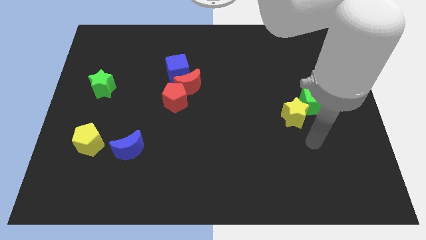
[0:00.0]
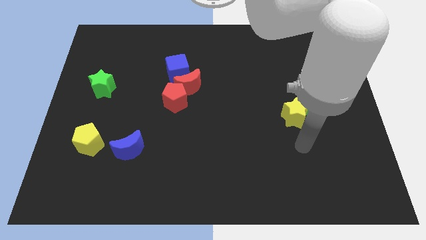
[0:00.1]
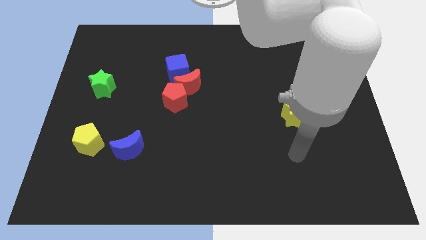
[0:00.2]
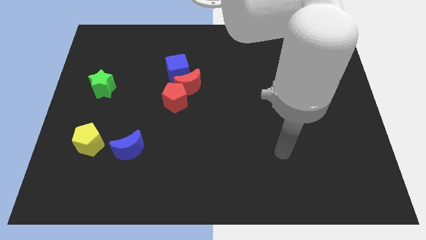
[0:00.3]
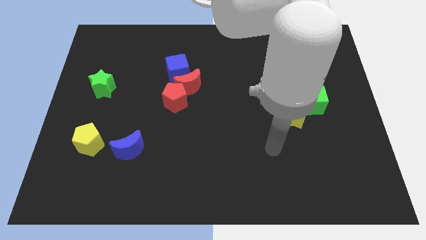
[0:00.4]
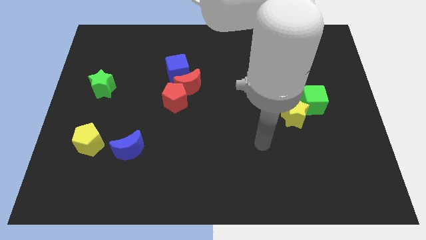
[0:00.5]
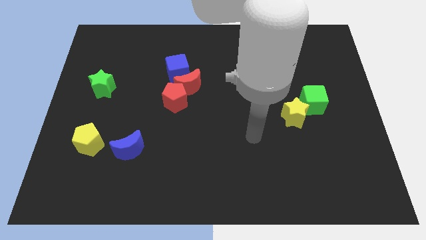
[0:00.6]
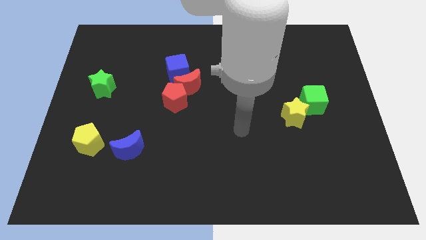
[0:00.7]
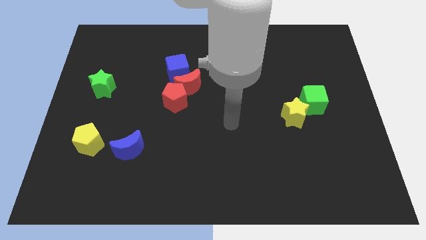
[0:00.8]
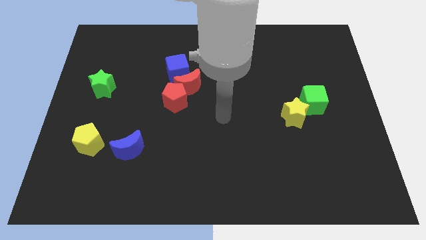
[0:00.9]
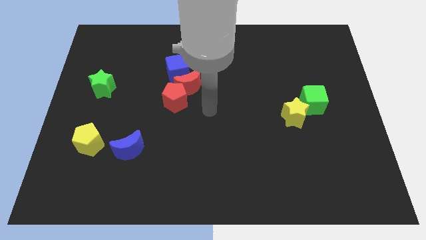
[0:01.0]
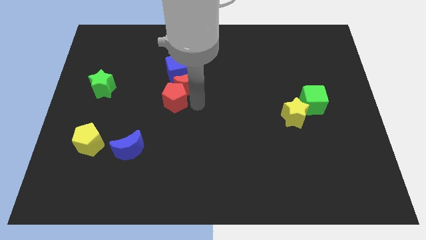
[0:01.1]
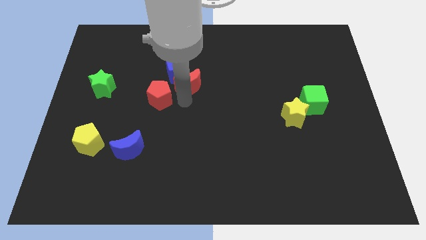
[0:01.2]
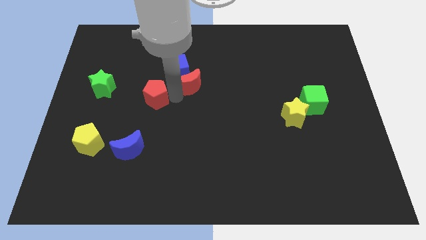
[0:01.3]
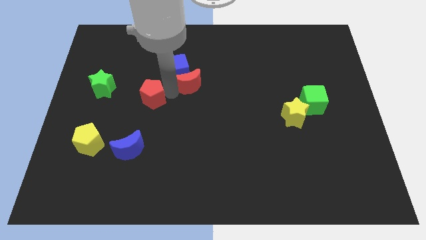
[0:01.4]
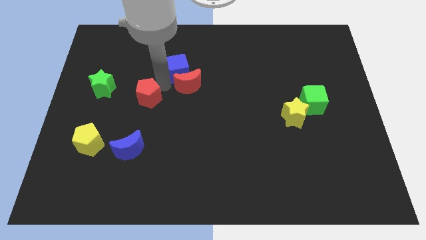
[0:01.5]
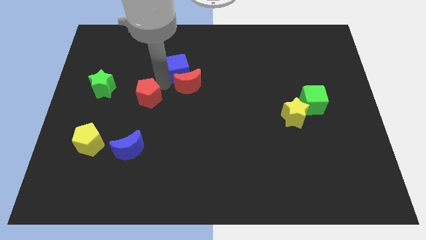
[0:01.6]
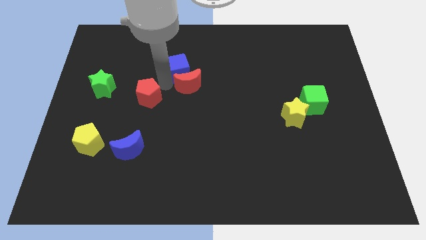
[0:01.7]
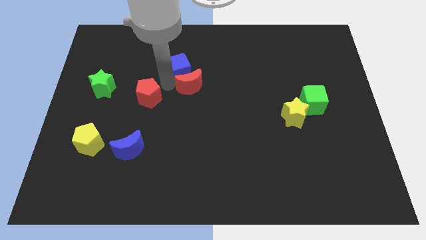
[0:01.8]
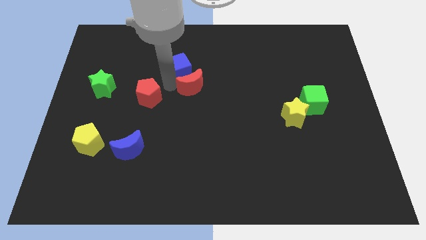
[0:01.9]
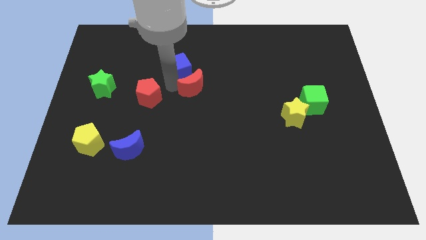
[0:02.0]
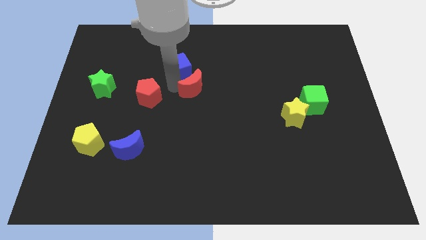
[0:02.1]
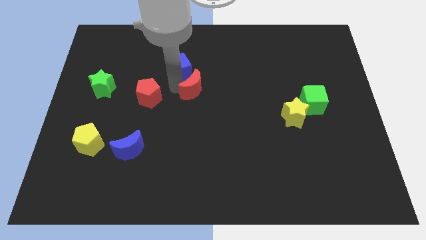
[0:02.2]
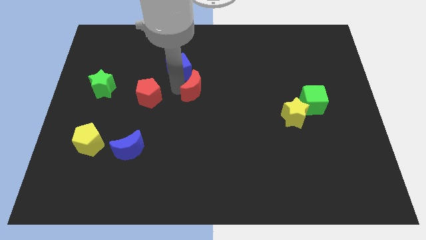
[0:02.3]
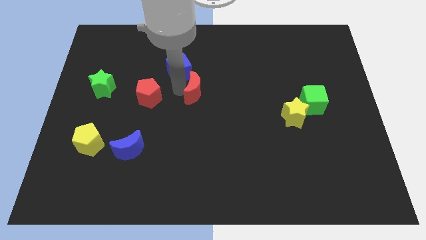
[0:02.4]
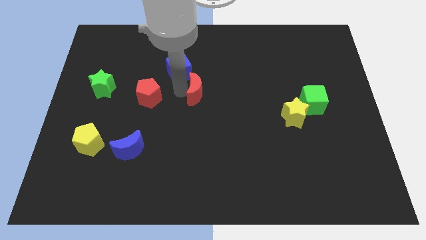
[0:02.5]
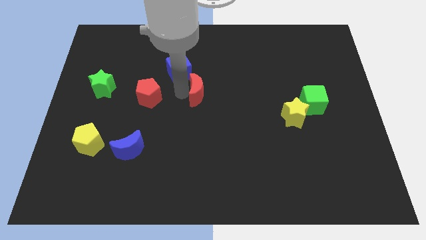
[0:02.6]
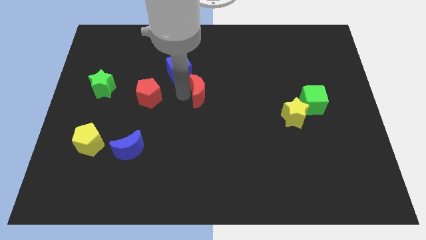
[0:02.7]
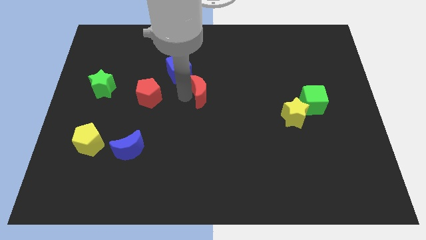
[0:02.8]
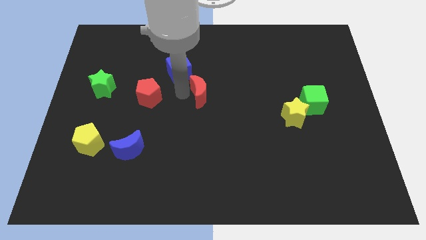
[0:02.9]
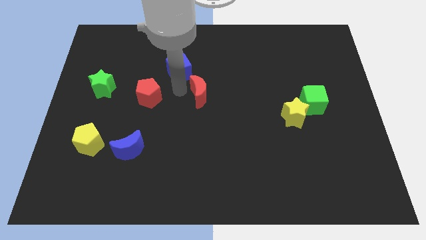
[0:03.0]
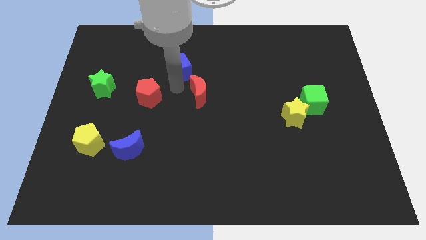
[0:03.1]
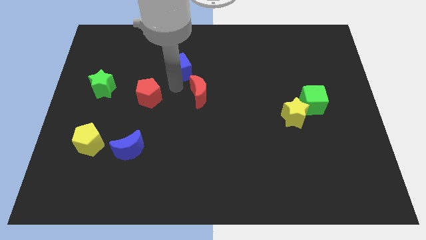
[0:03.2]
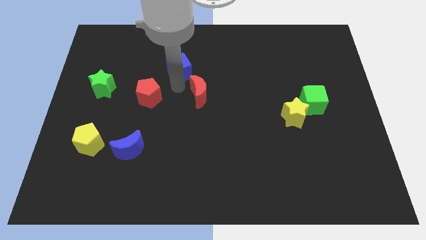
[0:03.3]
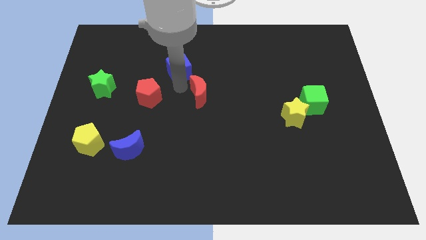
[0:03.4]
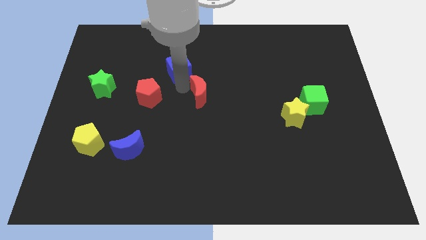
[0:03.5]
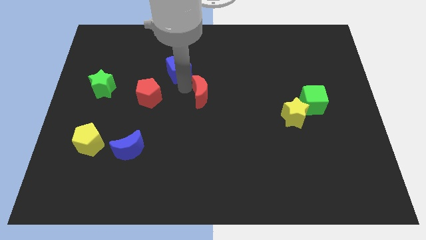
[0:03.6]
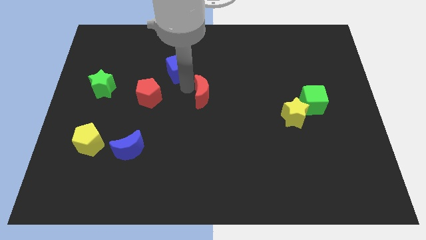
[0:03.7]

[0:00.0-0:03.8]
move the red moon away from the red pentagon and blue cube

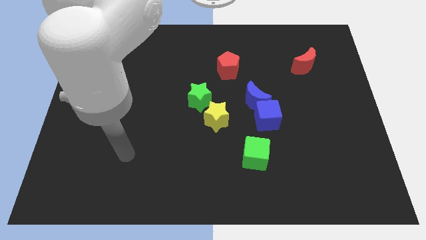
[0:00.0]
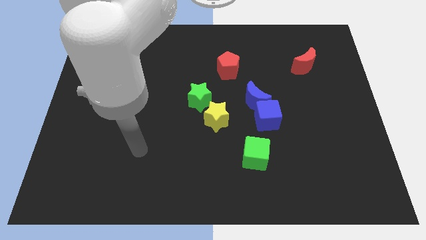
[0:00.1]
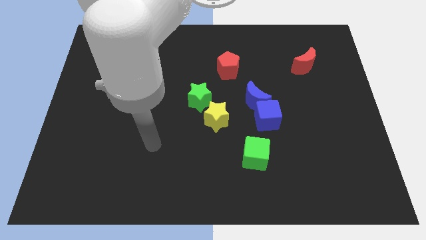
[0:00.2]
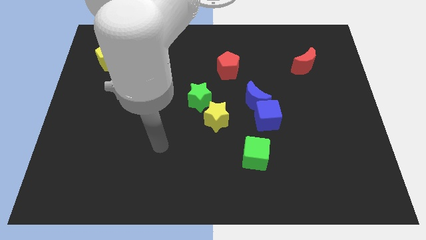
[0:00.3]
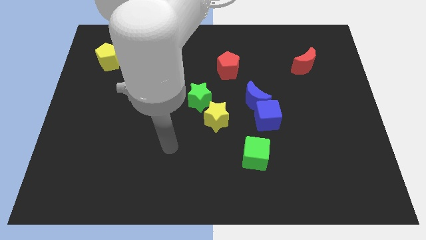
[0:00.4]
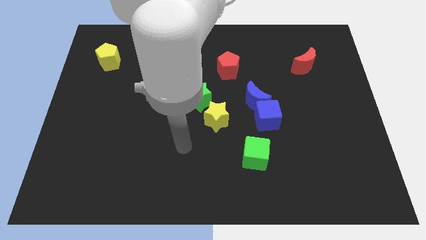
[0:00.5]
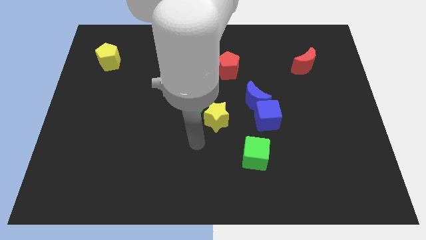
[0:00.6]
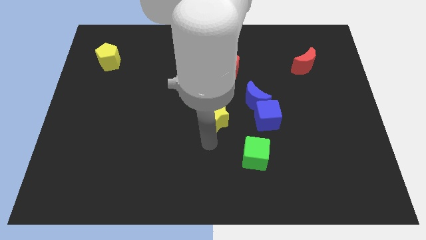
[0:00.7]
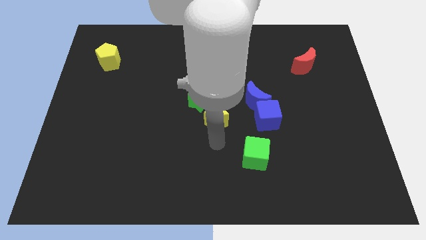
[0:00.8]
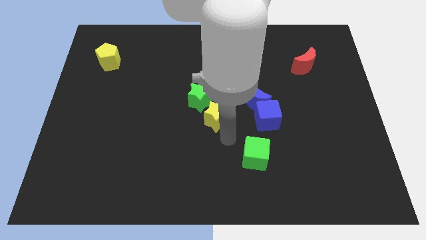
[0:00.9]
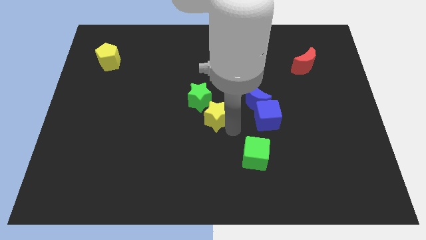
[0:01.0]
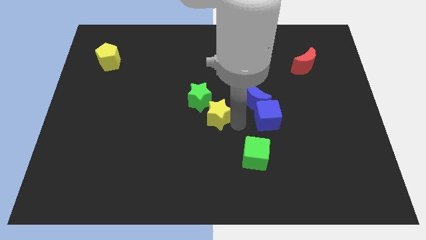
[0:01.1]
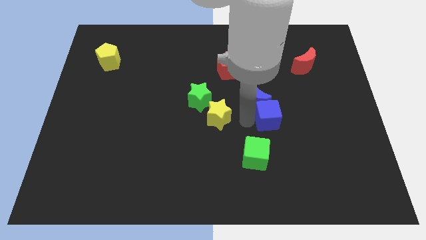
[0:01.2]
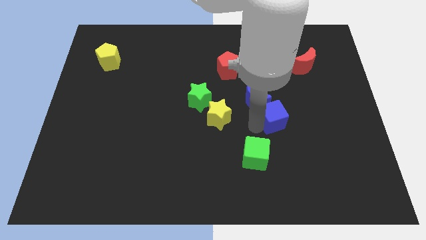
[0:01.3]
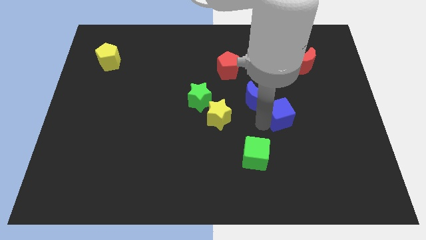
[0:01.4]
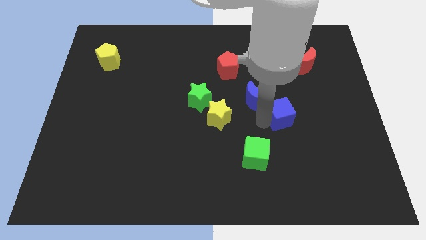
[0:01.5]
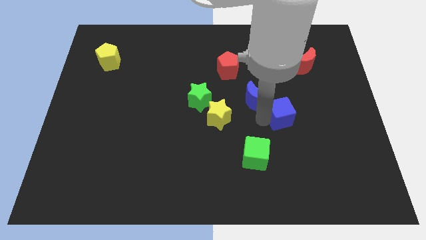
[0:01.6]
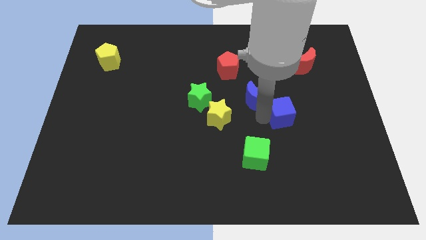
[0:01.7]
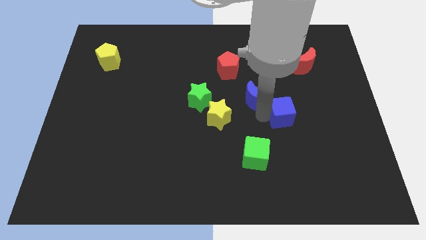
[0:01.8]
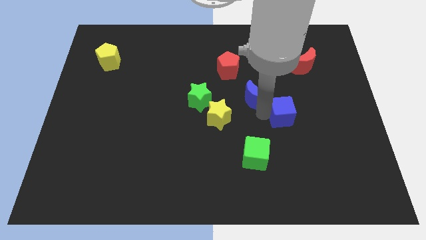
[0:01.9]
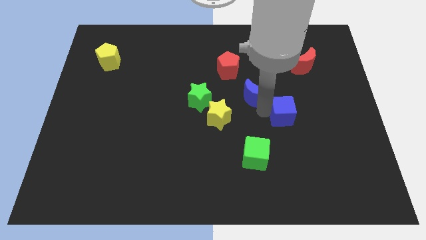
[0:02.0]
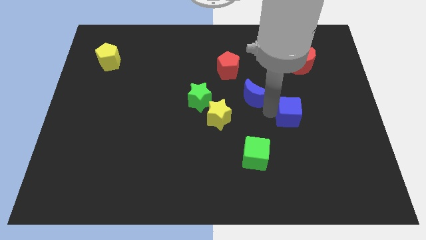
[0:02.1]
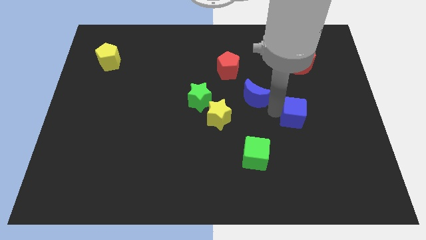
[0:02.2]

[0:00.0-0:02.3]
move the blue moon away from the blue cube

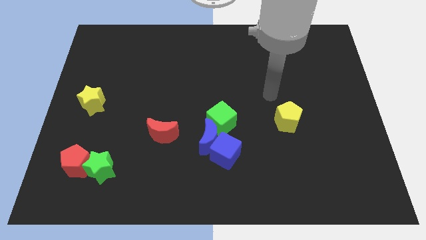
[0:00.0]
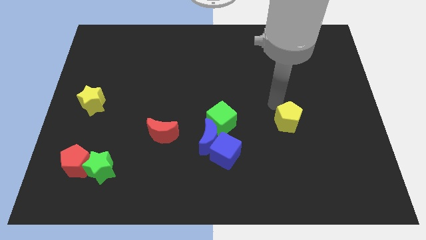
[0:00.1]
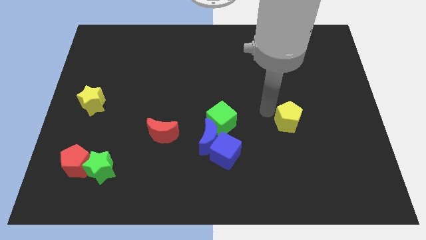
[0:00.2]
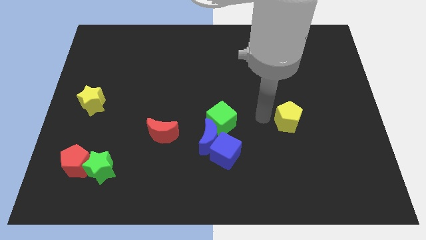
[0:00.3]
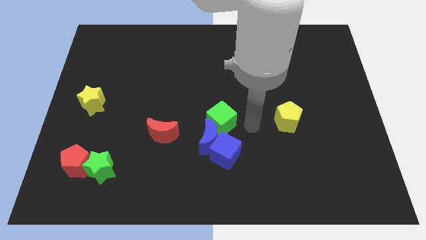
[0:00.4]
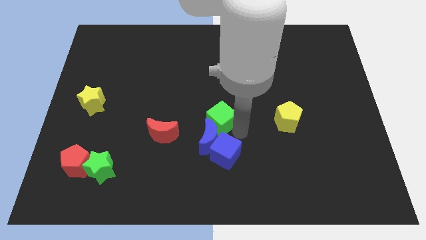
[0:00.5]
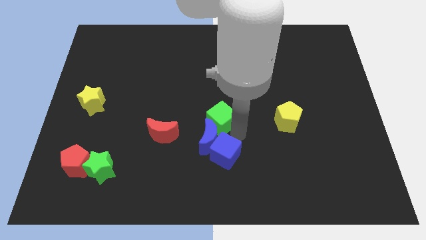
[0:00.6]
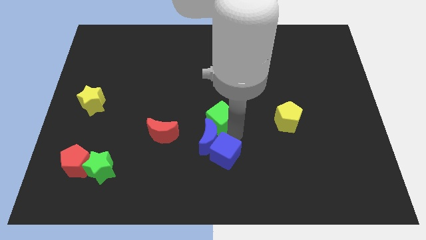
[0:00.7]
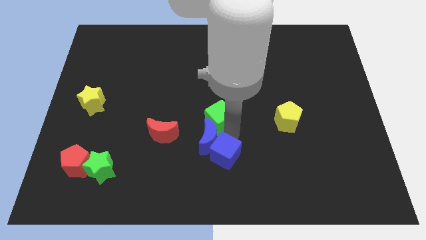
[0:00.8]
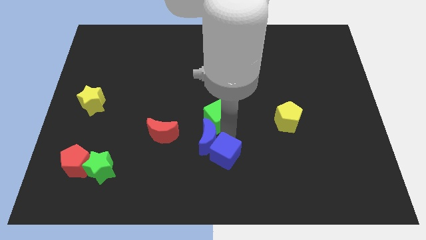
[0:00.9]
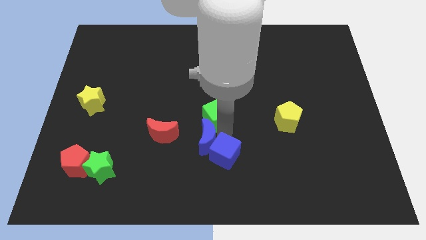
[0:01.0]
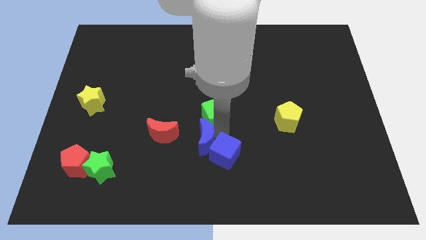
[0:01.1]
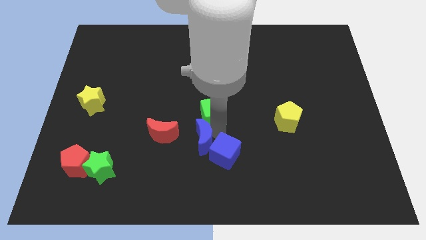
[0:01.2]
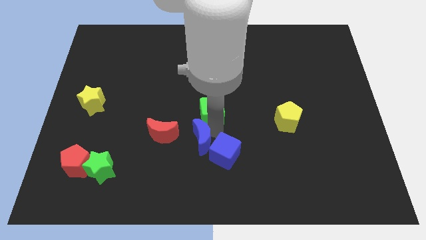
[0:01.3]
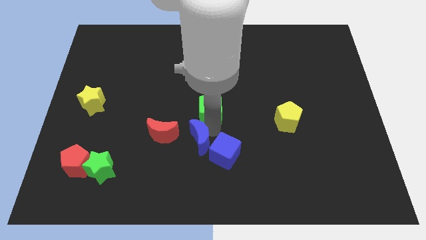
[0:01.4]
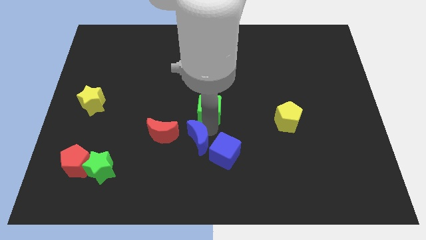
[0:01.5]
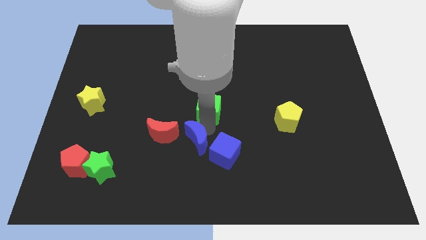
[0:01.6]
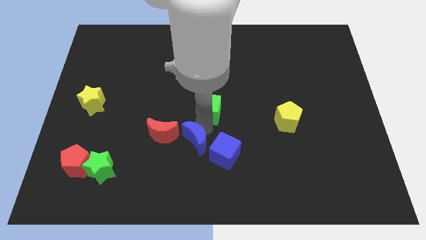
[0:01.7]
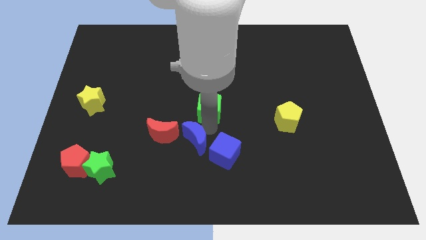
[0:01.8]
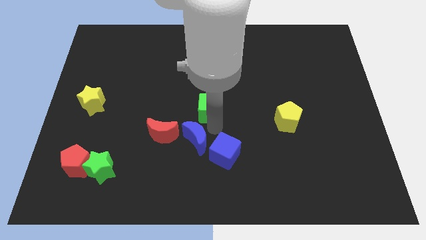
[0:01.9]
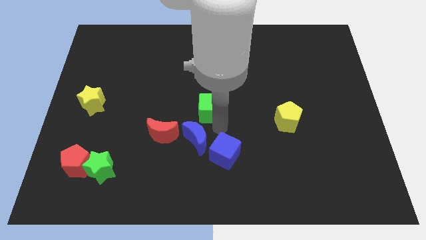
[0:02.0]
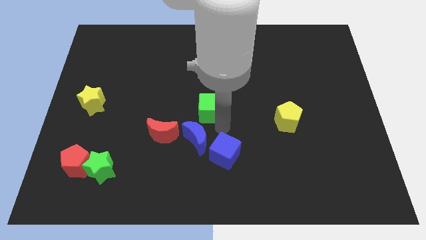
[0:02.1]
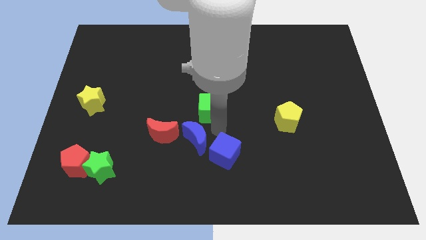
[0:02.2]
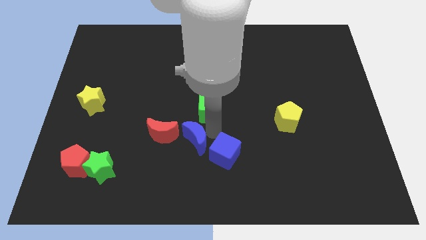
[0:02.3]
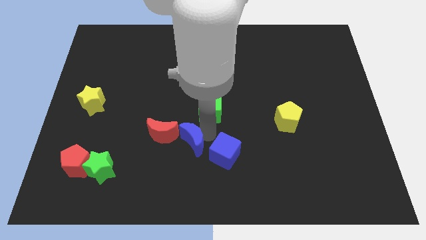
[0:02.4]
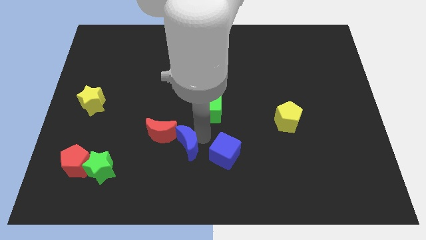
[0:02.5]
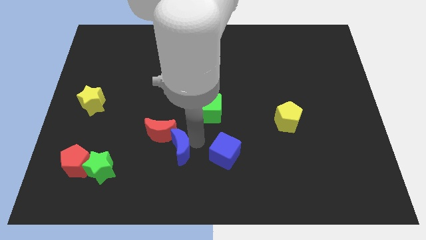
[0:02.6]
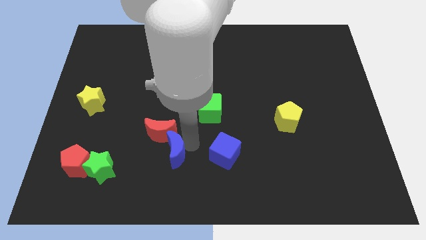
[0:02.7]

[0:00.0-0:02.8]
pull the blue moon apart from the blue cube and green cube

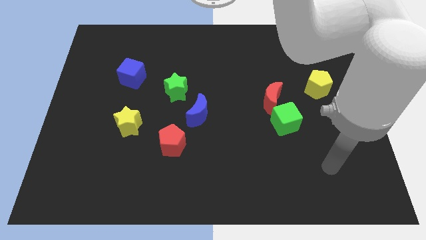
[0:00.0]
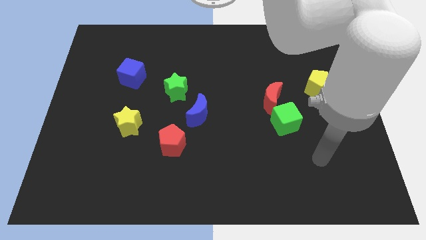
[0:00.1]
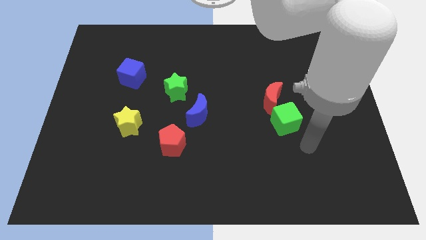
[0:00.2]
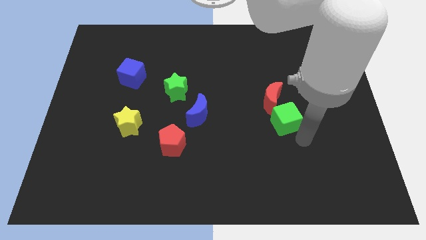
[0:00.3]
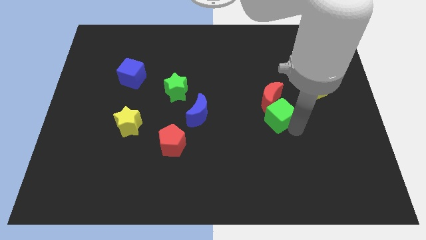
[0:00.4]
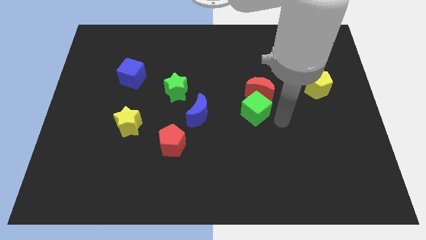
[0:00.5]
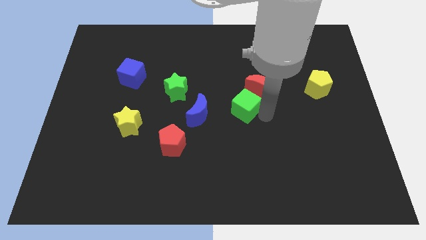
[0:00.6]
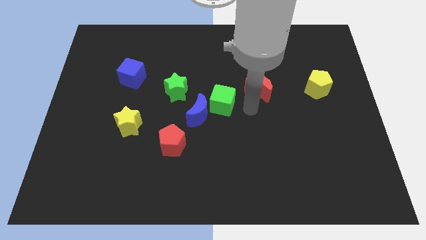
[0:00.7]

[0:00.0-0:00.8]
pull the red moon apart from the green cube
